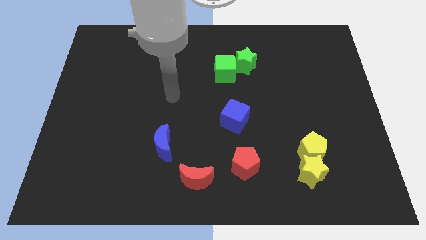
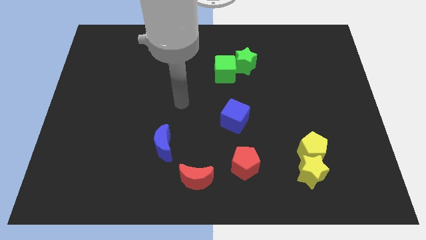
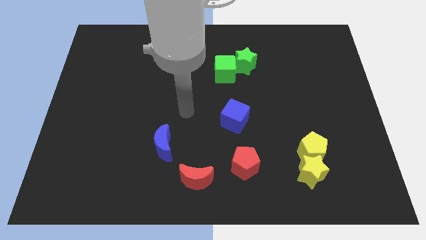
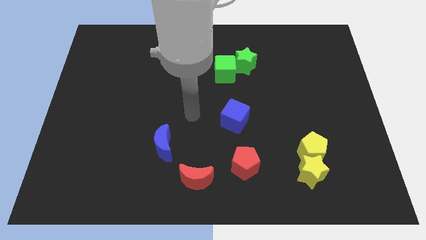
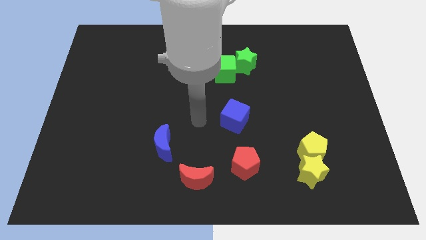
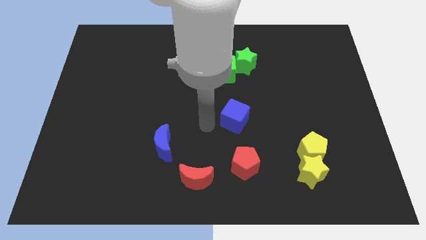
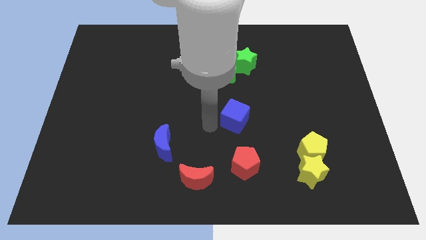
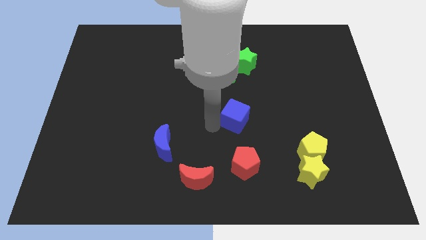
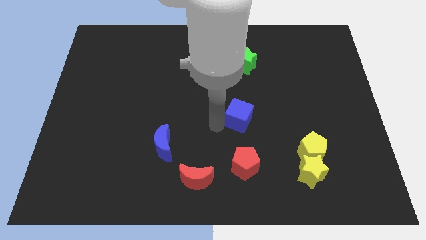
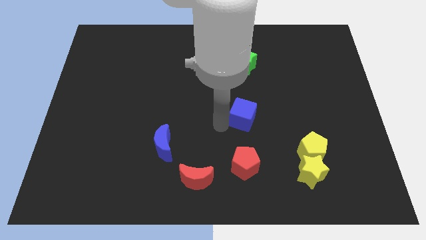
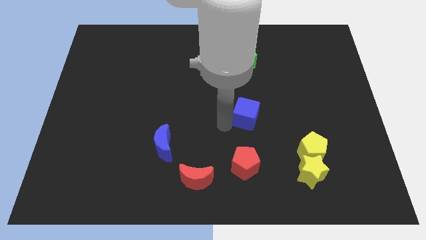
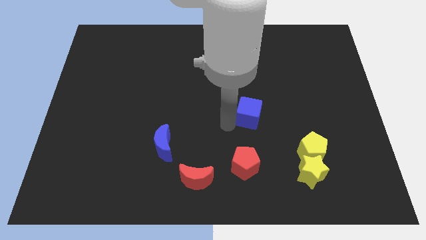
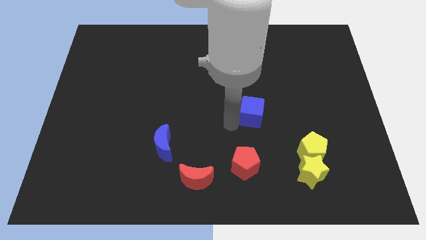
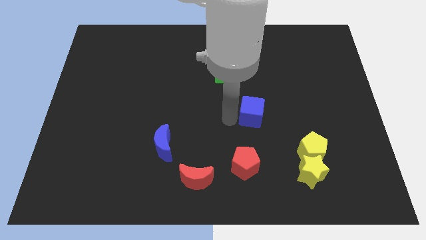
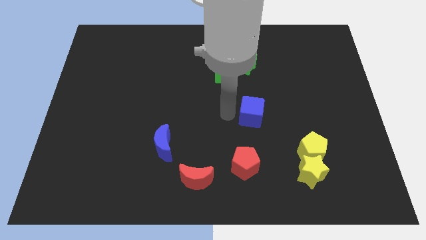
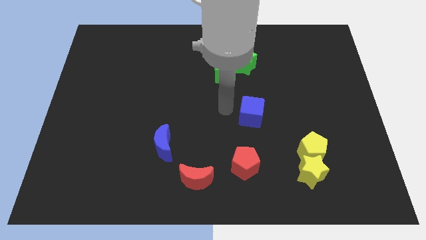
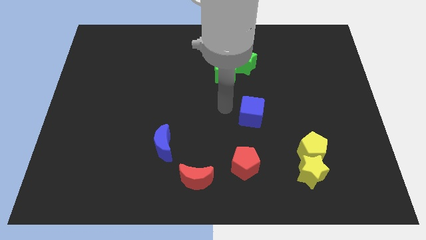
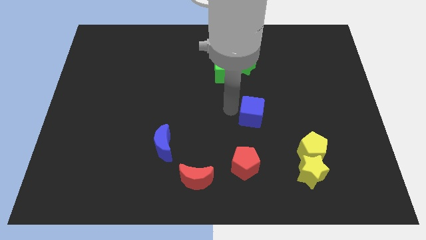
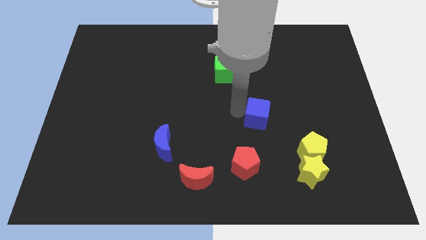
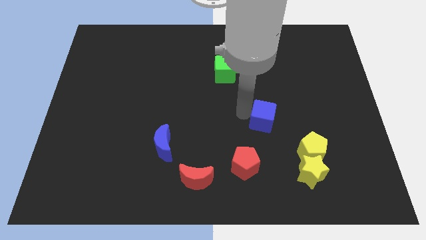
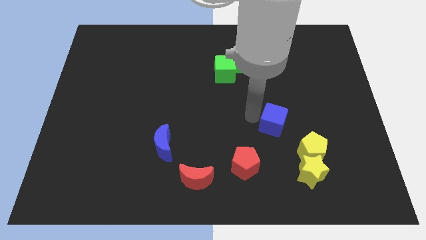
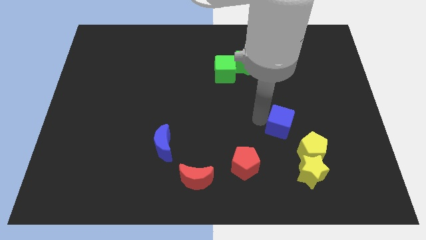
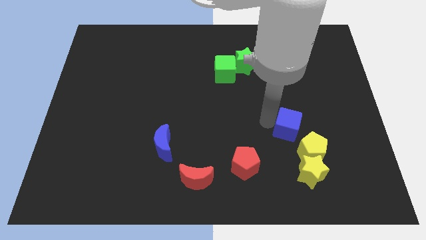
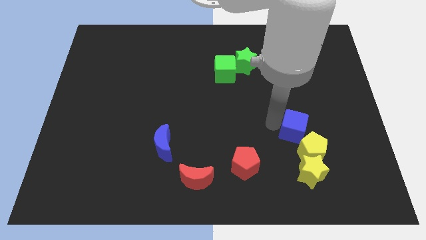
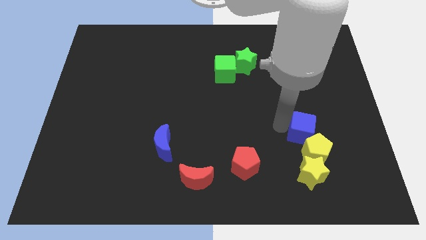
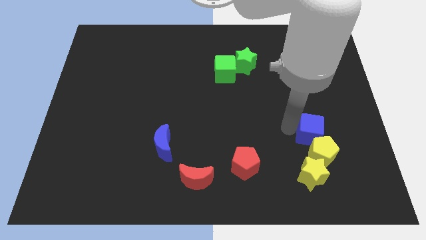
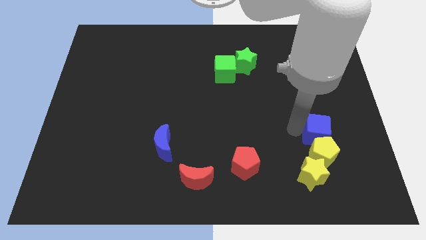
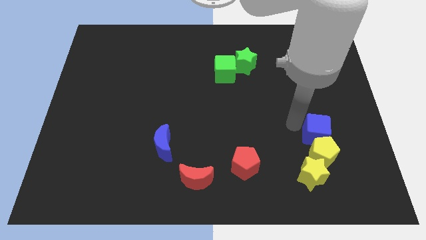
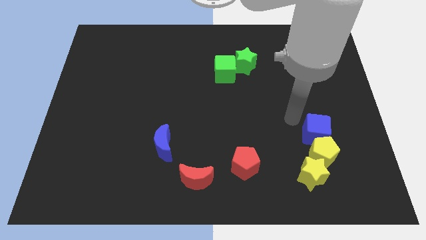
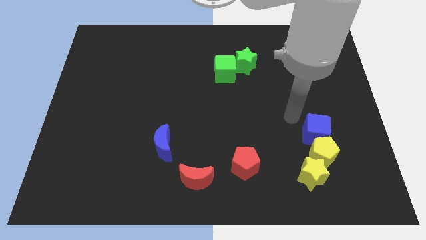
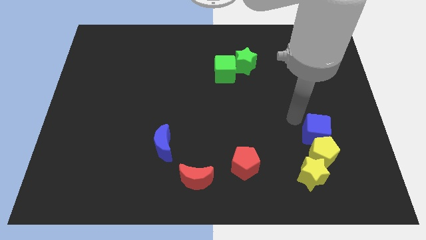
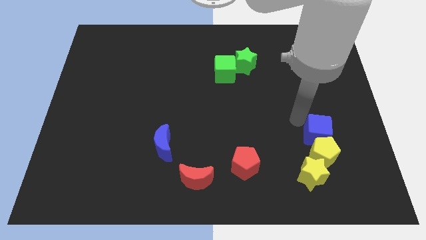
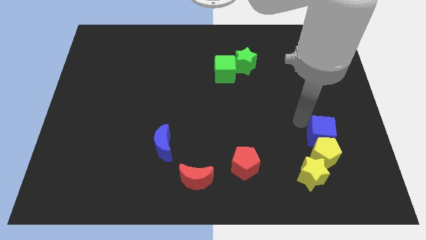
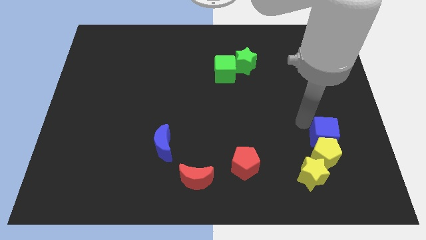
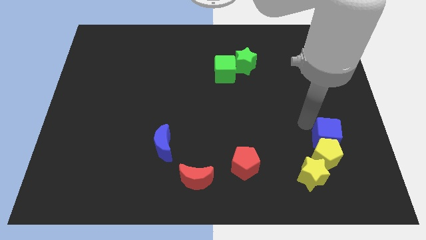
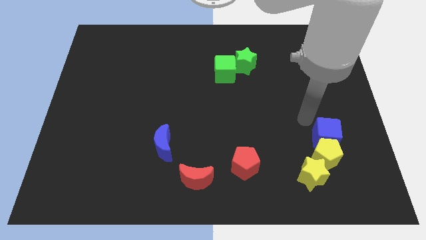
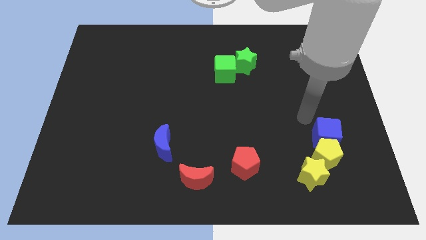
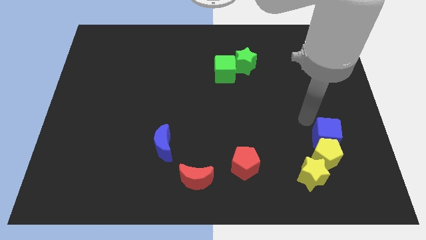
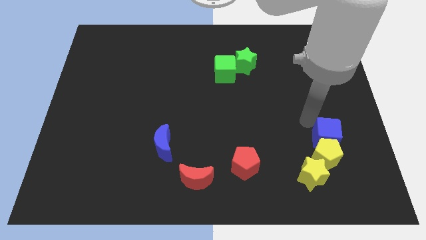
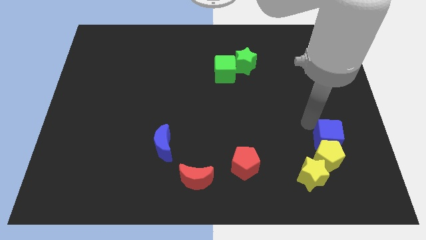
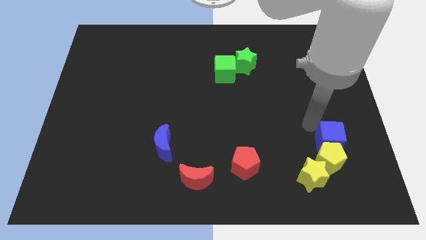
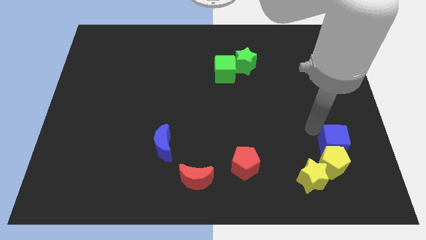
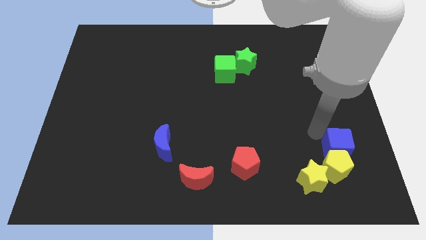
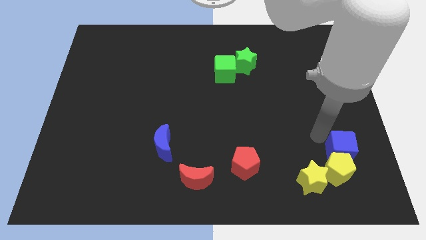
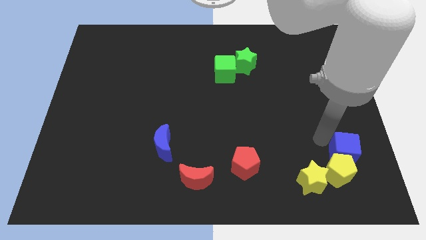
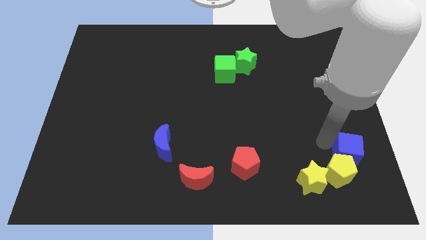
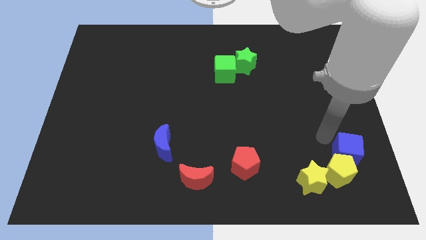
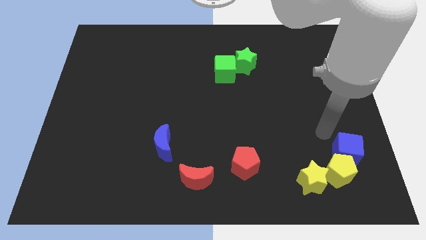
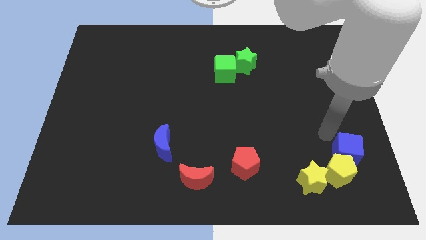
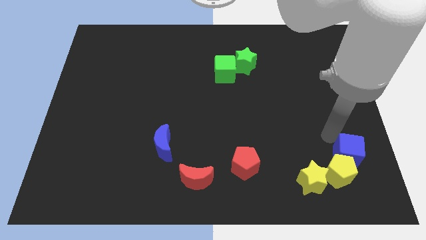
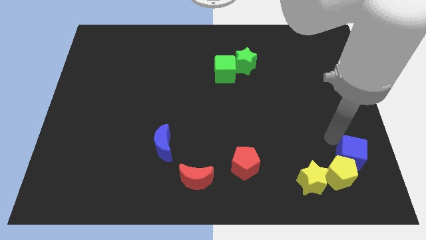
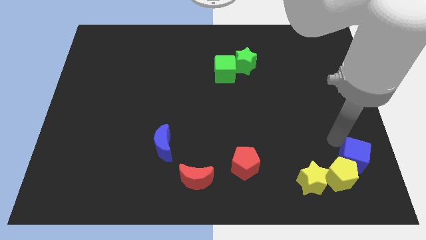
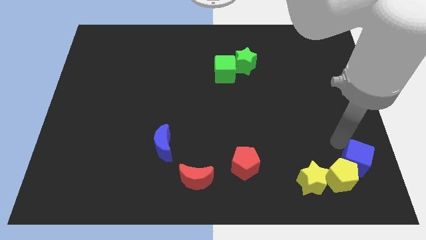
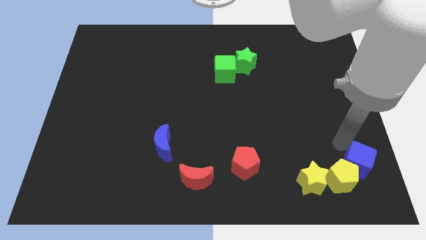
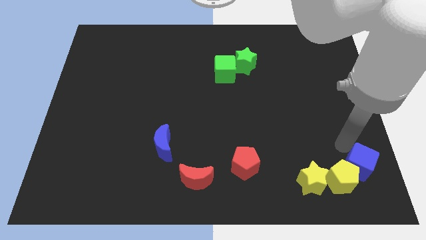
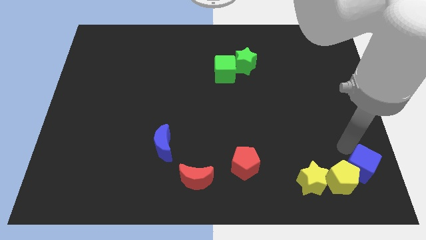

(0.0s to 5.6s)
slide the blue cube to the bottom right corner
